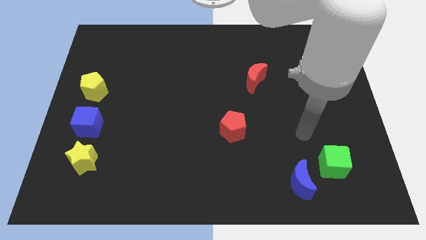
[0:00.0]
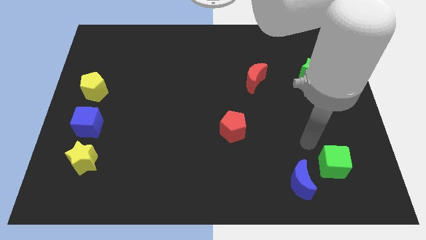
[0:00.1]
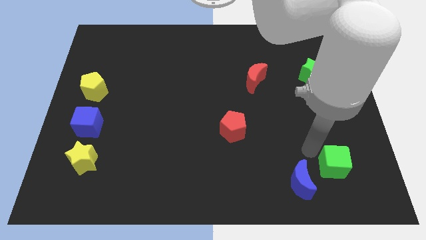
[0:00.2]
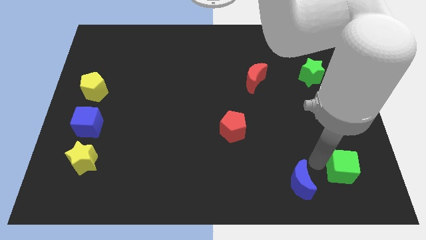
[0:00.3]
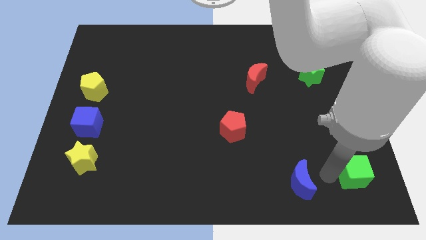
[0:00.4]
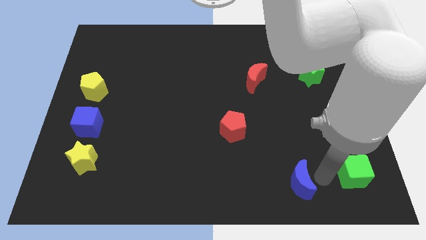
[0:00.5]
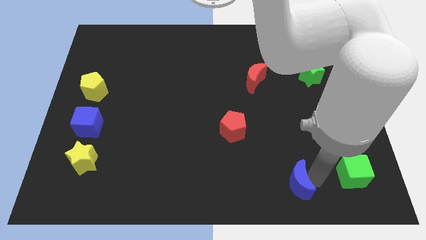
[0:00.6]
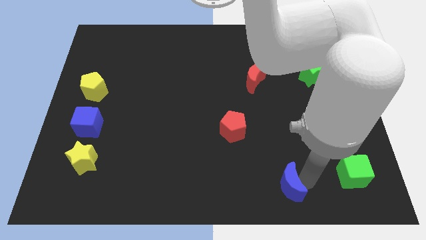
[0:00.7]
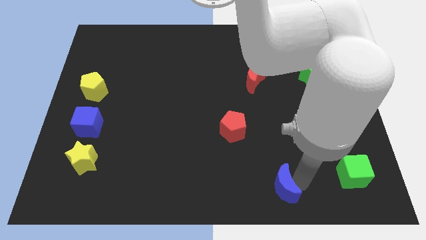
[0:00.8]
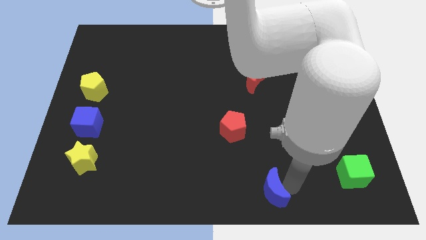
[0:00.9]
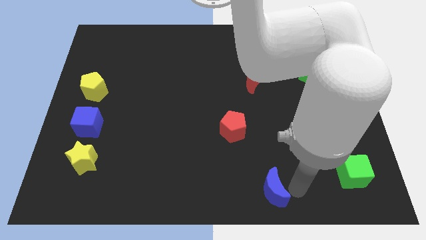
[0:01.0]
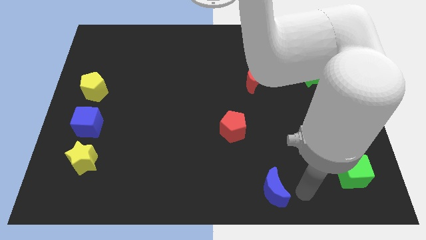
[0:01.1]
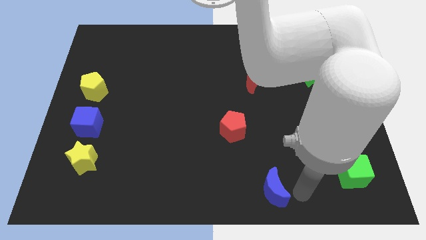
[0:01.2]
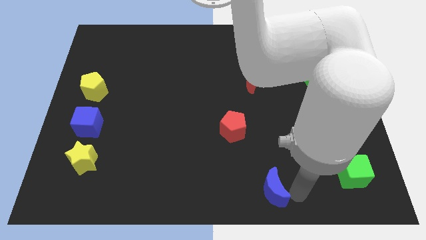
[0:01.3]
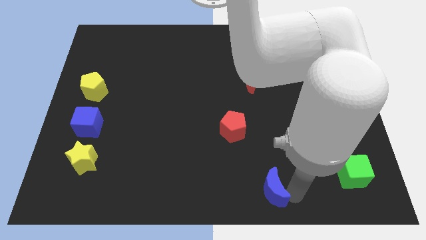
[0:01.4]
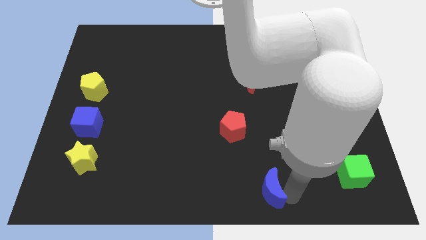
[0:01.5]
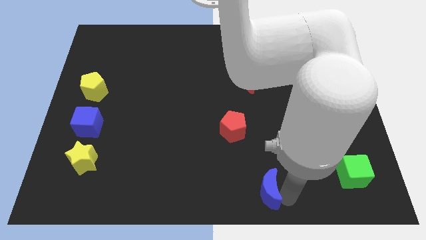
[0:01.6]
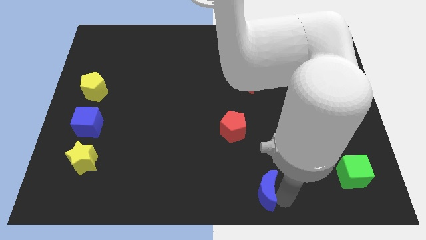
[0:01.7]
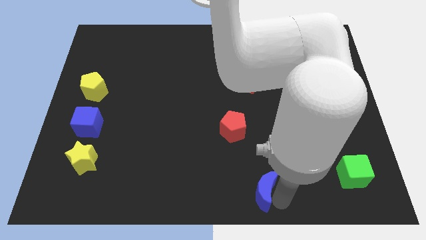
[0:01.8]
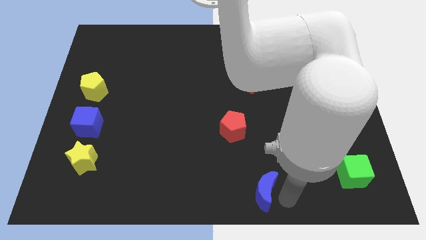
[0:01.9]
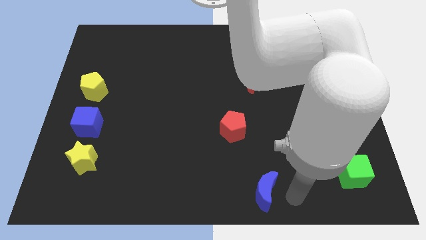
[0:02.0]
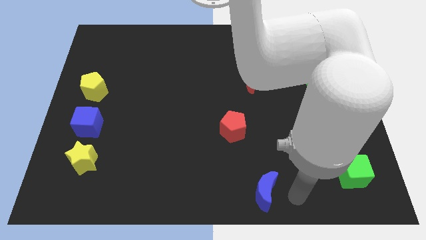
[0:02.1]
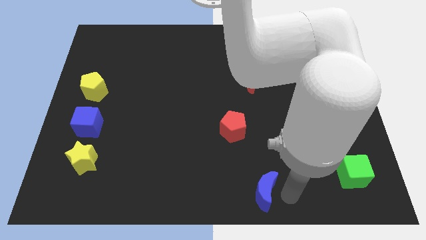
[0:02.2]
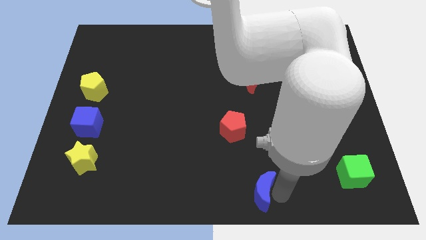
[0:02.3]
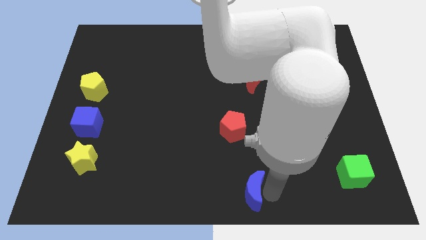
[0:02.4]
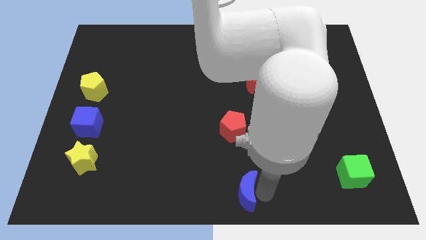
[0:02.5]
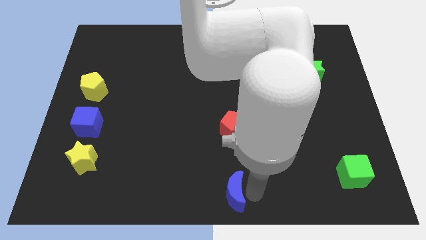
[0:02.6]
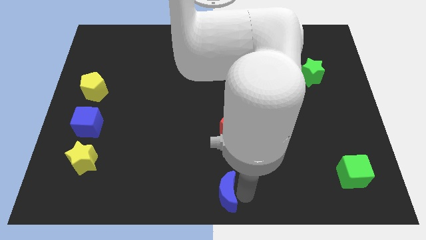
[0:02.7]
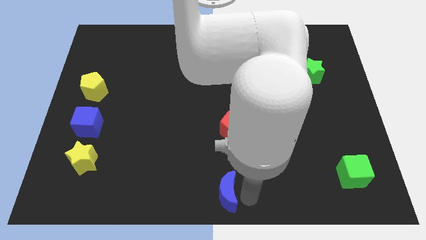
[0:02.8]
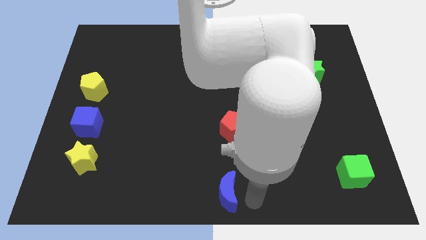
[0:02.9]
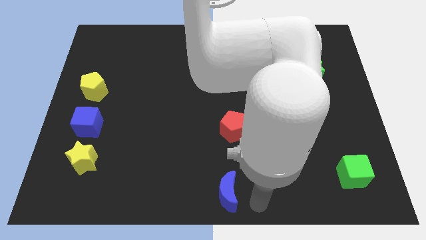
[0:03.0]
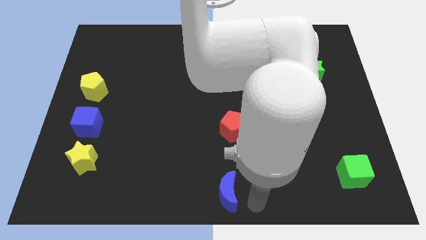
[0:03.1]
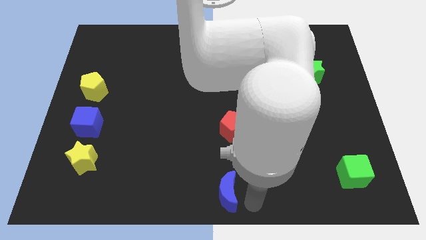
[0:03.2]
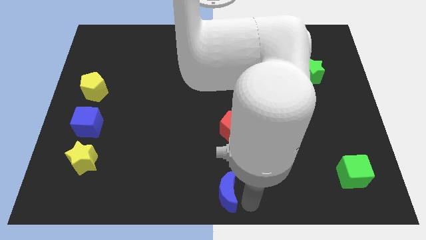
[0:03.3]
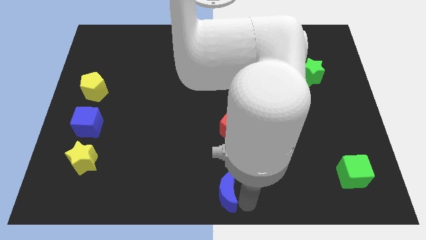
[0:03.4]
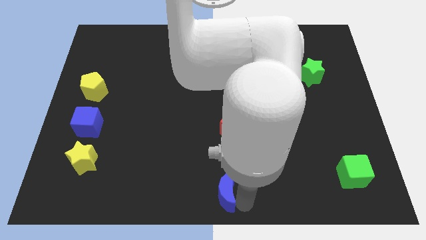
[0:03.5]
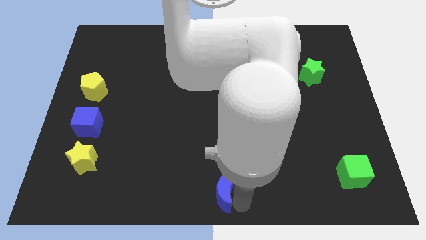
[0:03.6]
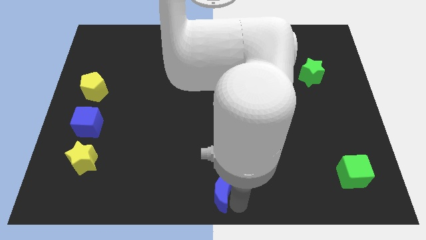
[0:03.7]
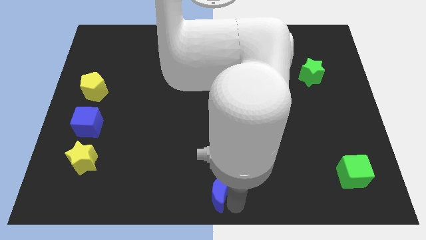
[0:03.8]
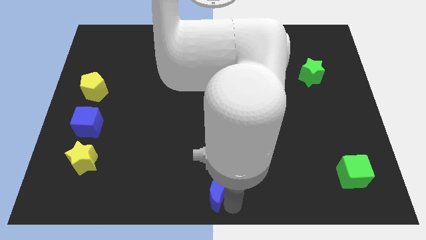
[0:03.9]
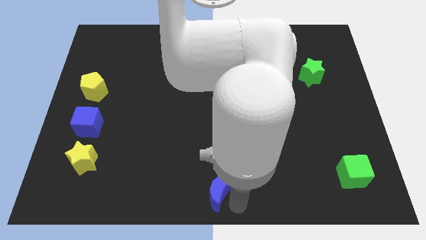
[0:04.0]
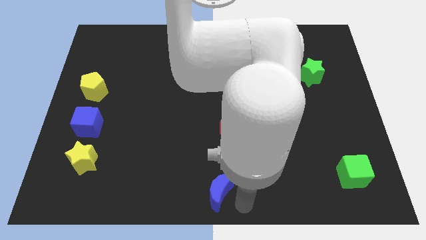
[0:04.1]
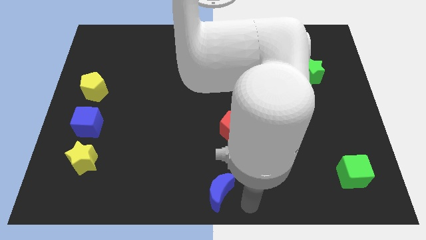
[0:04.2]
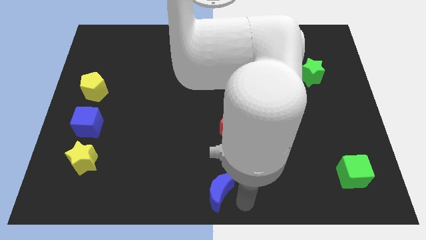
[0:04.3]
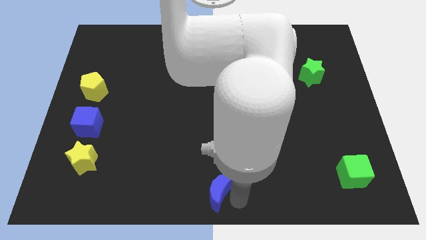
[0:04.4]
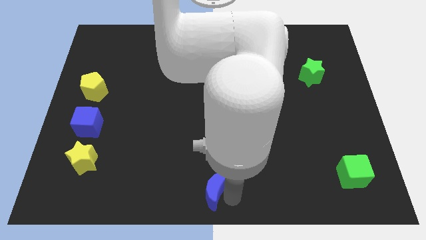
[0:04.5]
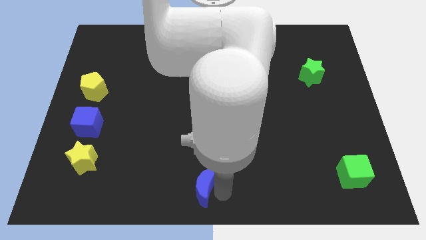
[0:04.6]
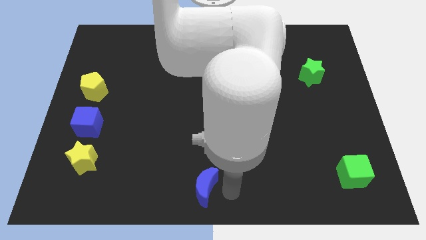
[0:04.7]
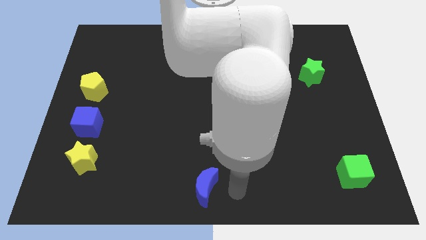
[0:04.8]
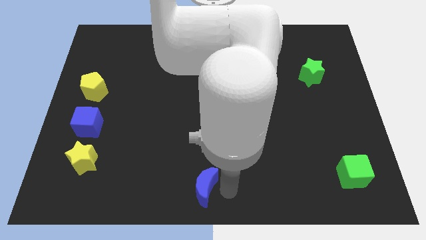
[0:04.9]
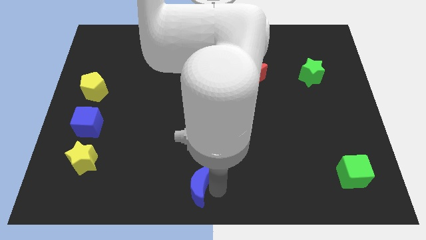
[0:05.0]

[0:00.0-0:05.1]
move the blue moon left

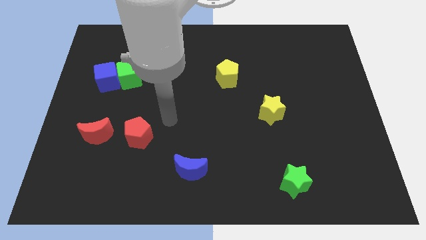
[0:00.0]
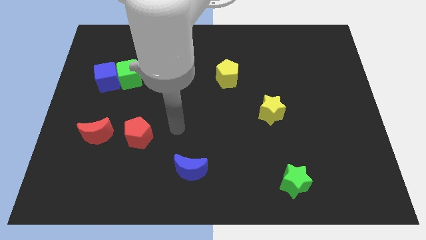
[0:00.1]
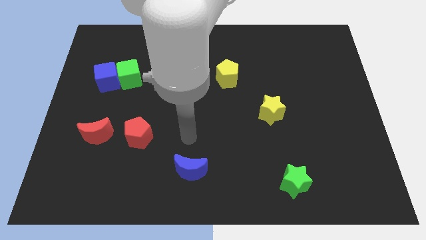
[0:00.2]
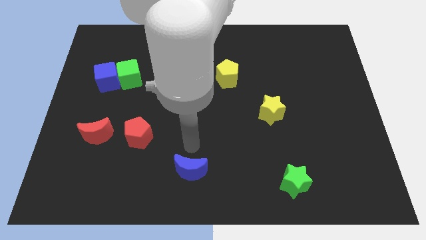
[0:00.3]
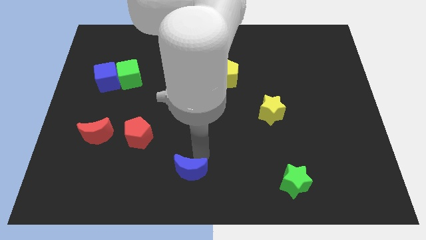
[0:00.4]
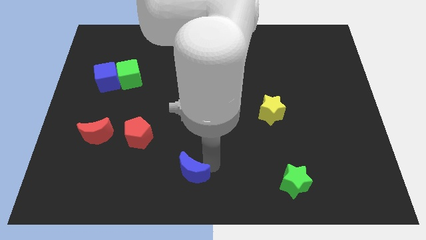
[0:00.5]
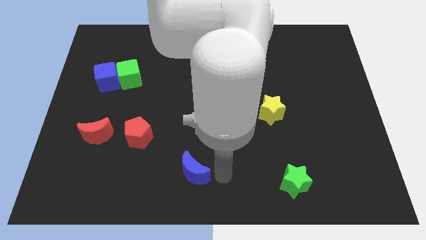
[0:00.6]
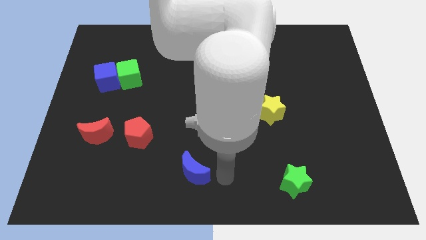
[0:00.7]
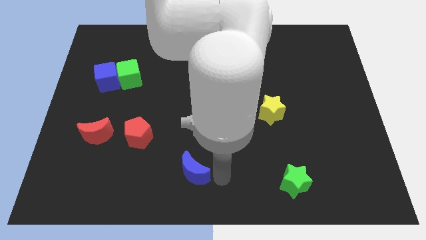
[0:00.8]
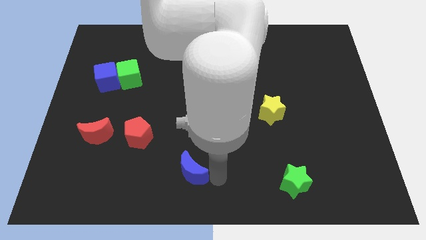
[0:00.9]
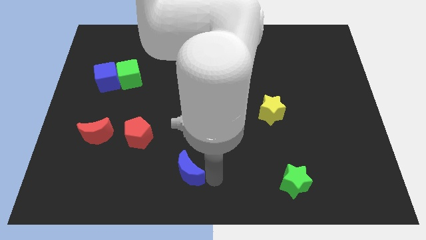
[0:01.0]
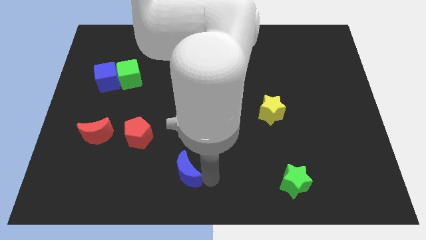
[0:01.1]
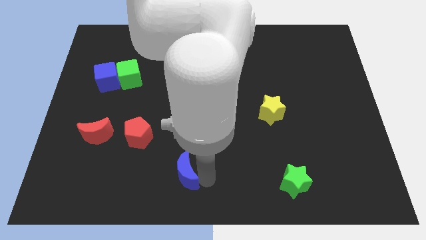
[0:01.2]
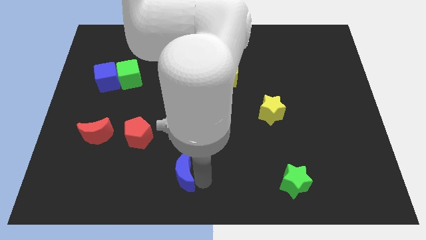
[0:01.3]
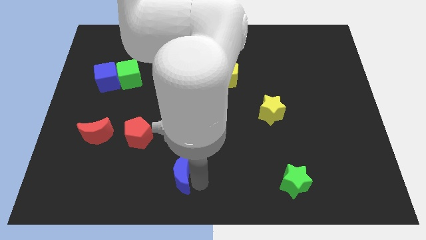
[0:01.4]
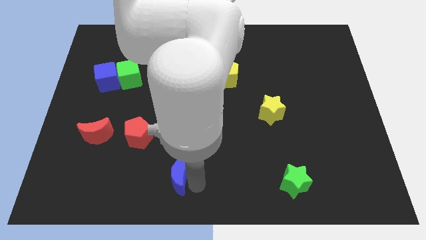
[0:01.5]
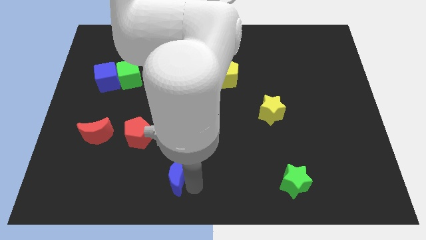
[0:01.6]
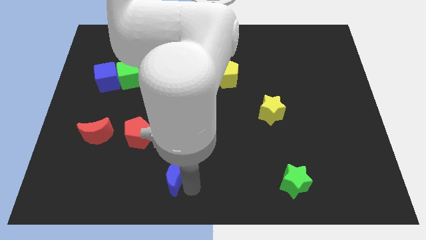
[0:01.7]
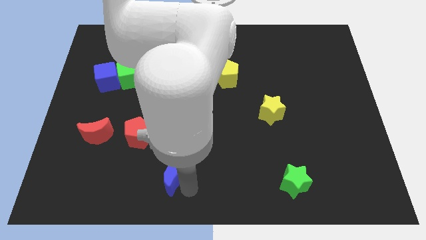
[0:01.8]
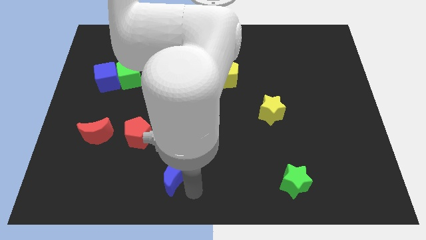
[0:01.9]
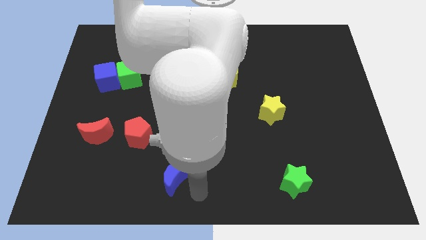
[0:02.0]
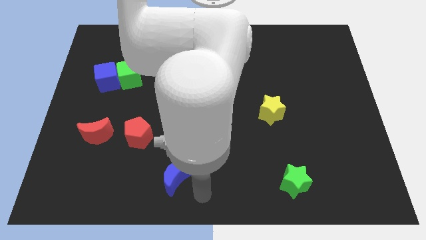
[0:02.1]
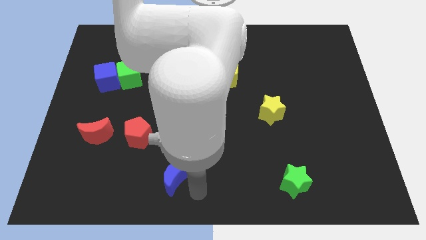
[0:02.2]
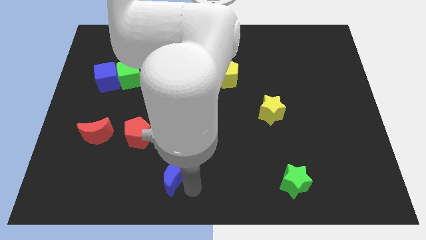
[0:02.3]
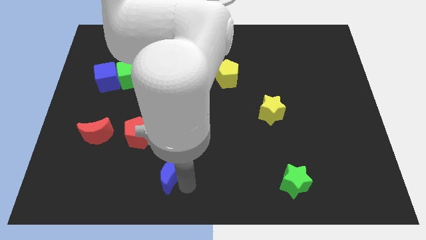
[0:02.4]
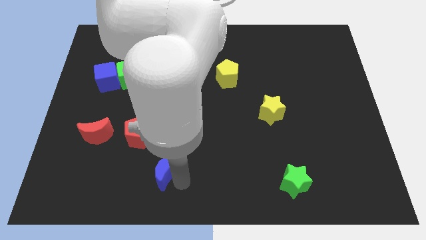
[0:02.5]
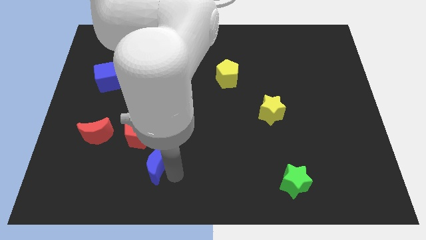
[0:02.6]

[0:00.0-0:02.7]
push the blue moon somewhat to the left

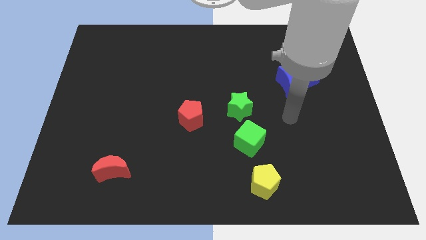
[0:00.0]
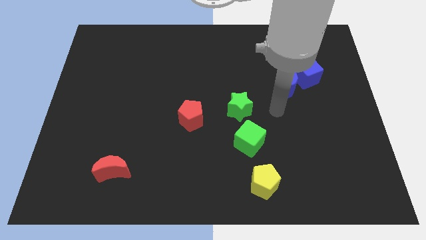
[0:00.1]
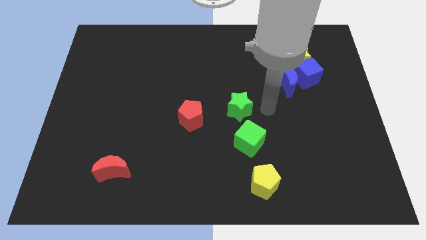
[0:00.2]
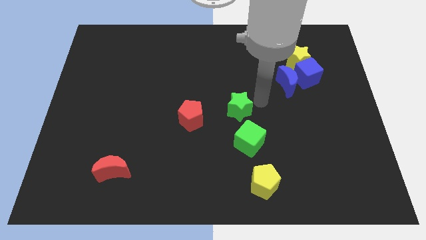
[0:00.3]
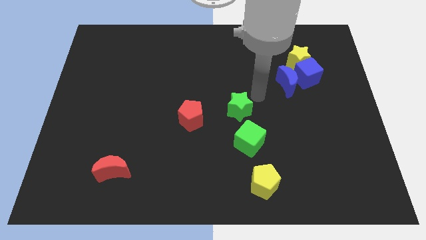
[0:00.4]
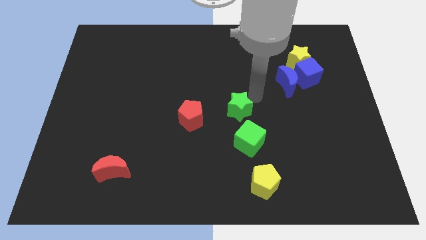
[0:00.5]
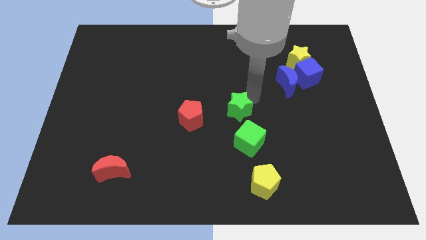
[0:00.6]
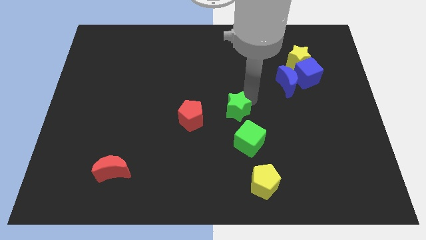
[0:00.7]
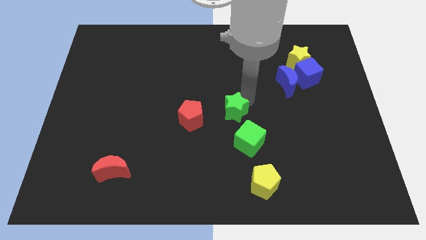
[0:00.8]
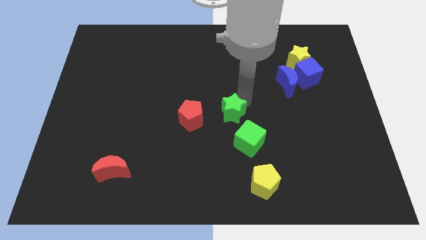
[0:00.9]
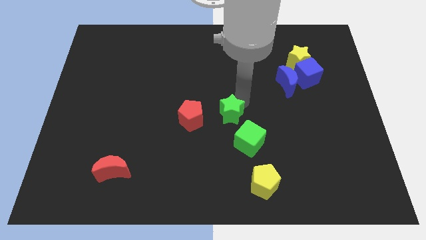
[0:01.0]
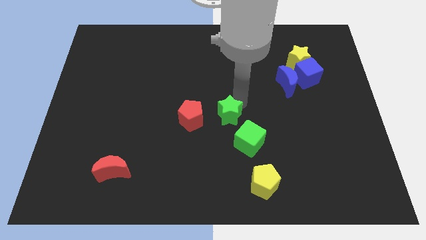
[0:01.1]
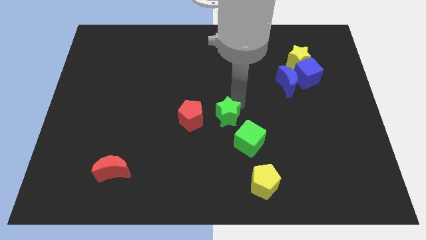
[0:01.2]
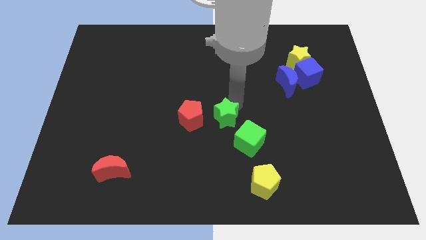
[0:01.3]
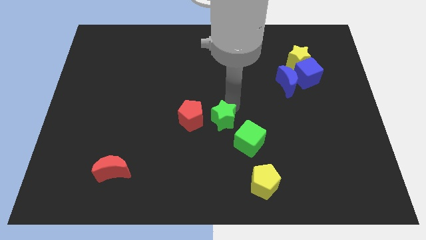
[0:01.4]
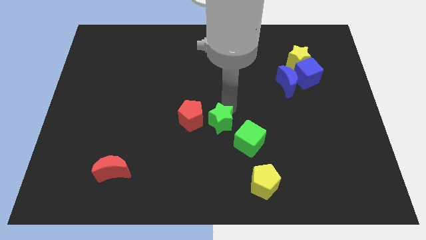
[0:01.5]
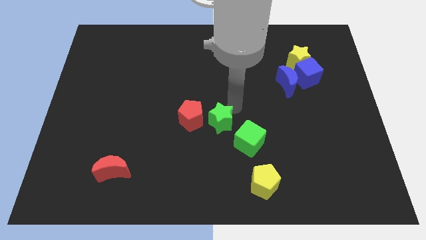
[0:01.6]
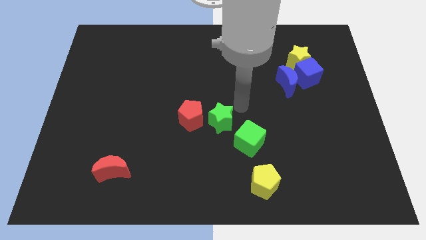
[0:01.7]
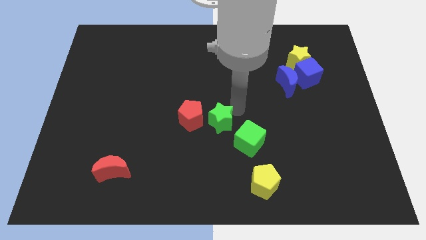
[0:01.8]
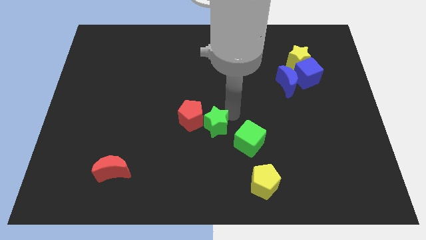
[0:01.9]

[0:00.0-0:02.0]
push the green star slightly down and then to the left
